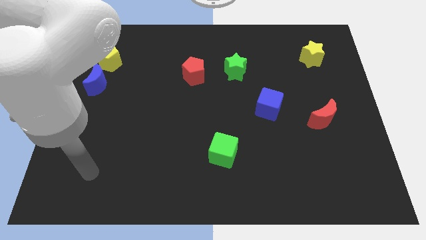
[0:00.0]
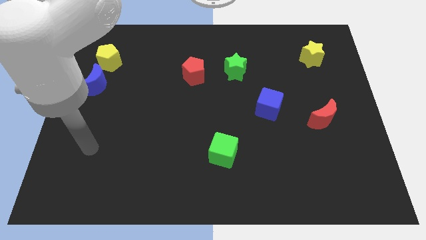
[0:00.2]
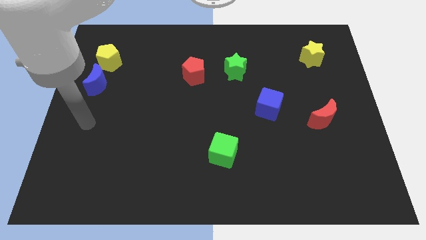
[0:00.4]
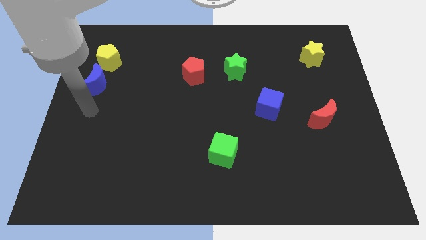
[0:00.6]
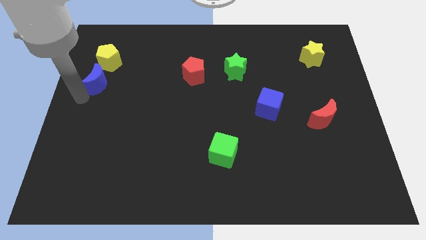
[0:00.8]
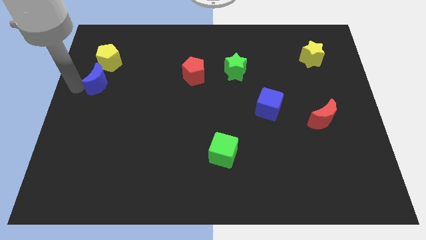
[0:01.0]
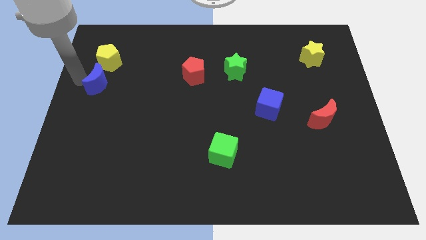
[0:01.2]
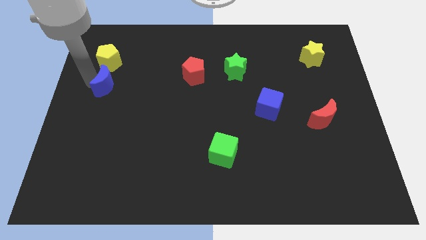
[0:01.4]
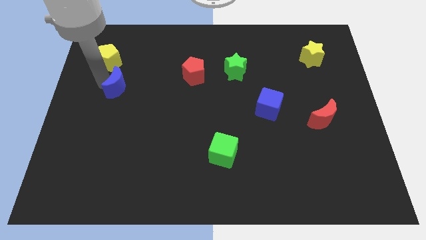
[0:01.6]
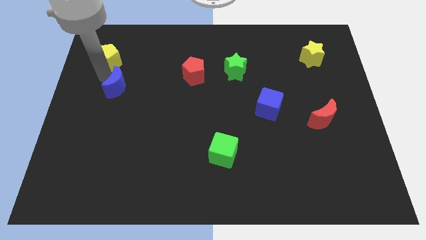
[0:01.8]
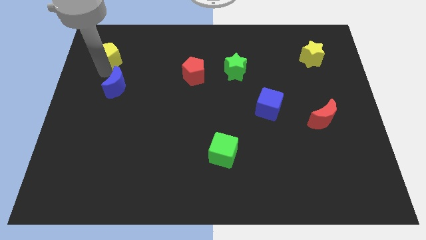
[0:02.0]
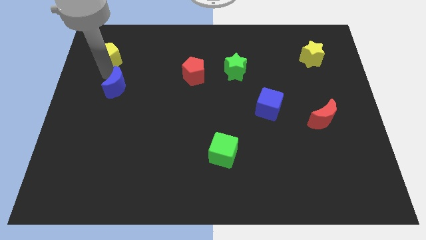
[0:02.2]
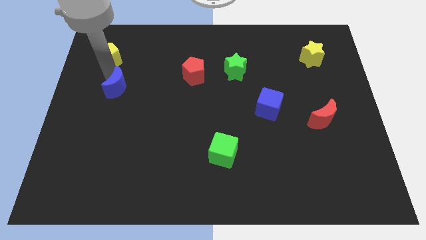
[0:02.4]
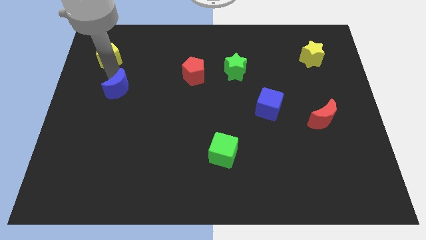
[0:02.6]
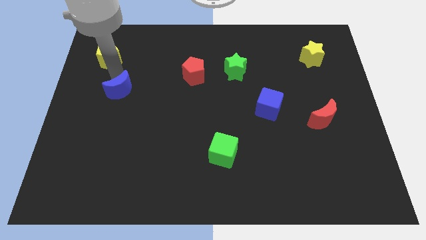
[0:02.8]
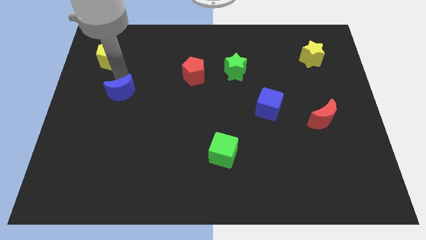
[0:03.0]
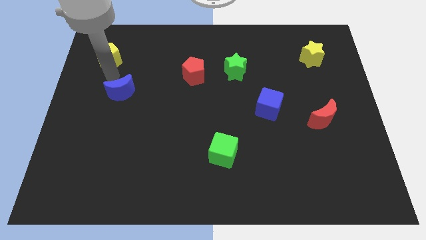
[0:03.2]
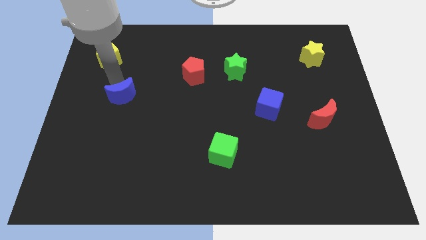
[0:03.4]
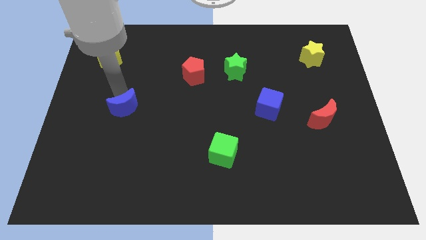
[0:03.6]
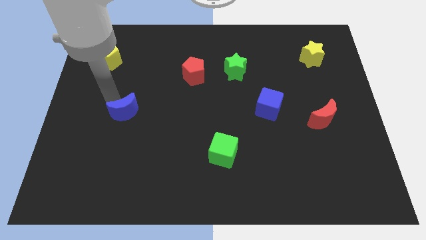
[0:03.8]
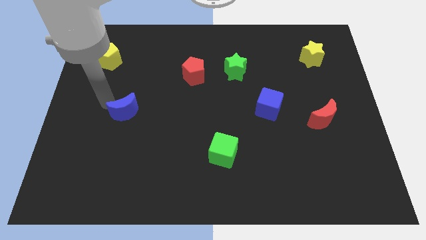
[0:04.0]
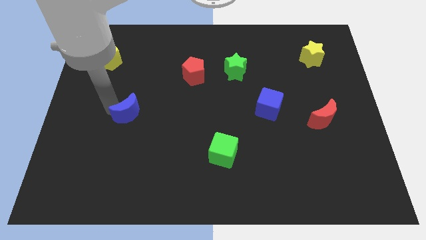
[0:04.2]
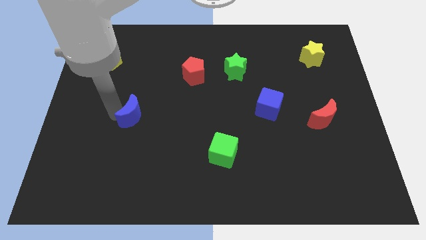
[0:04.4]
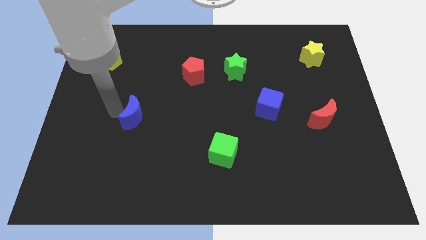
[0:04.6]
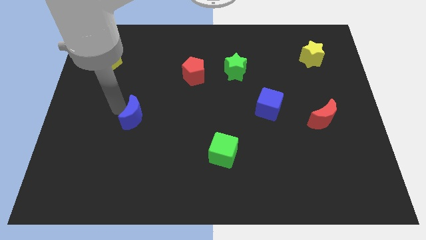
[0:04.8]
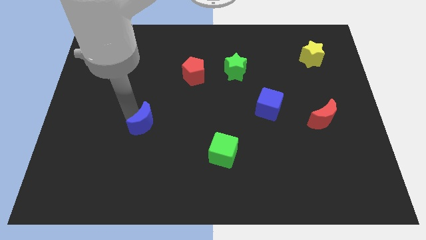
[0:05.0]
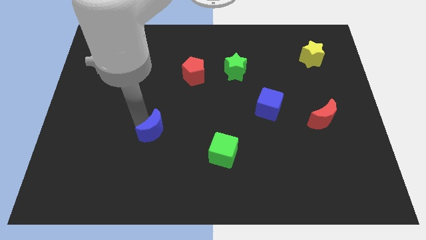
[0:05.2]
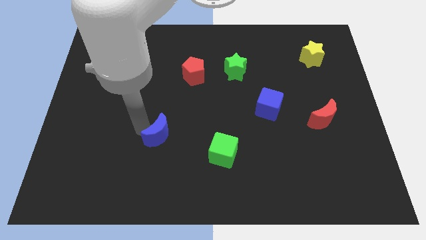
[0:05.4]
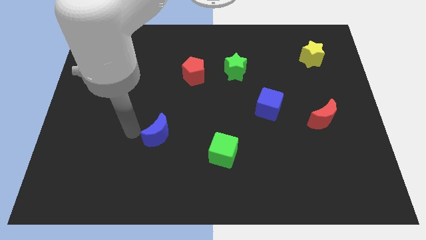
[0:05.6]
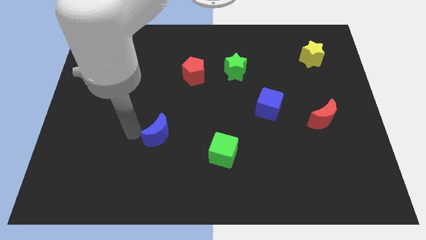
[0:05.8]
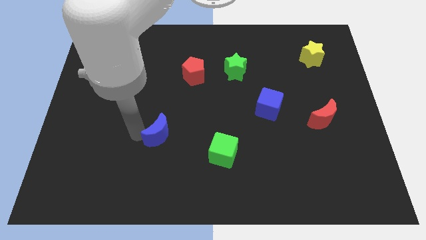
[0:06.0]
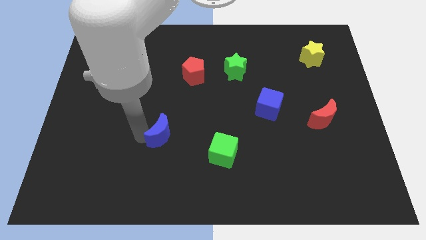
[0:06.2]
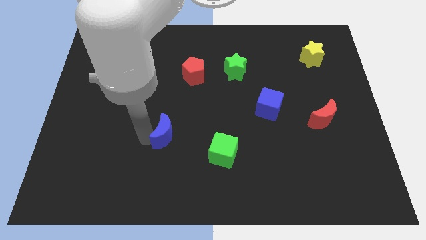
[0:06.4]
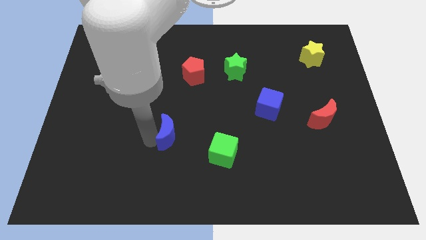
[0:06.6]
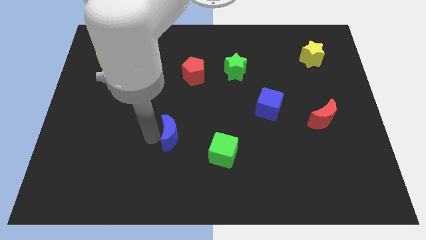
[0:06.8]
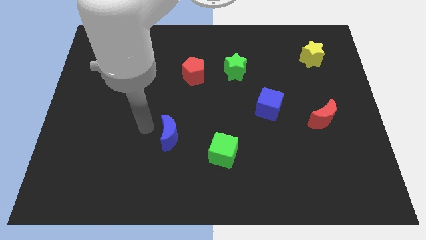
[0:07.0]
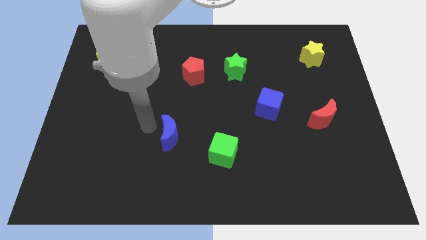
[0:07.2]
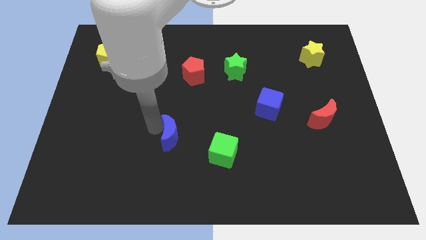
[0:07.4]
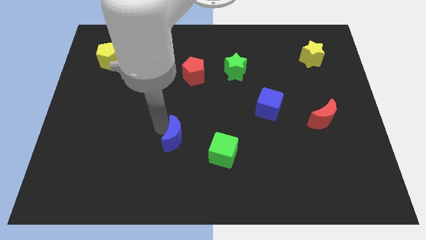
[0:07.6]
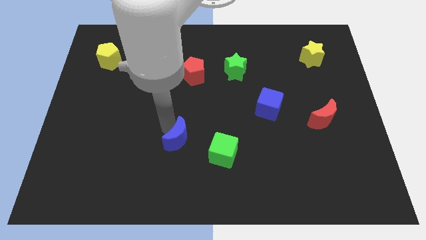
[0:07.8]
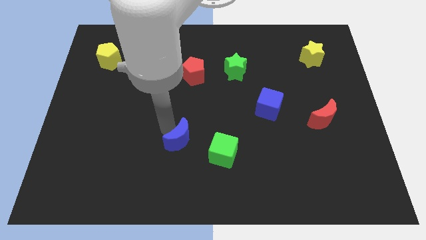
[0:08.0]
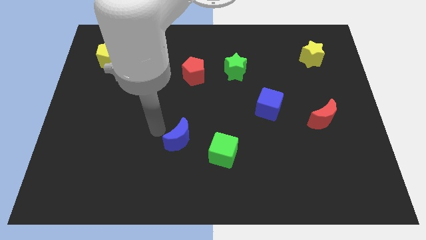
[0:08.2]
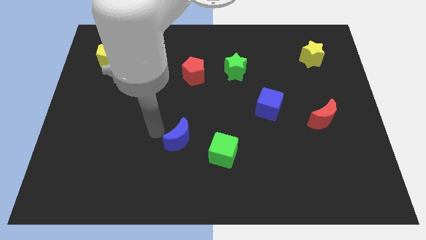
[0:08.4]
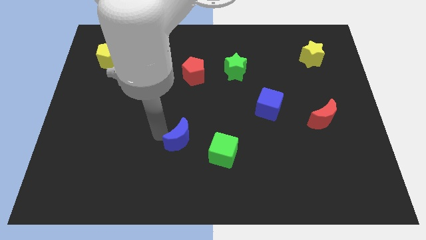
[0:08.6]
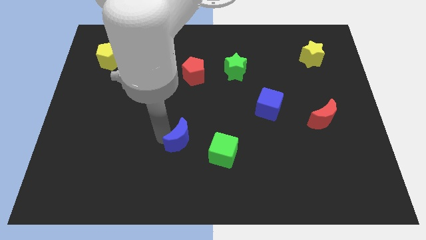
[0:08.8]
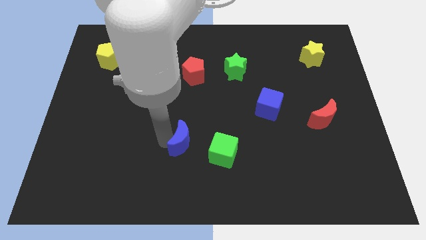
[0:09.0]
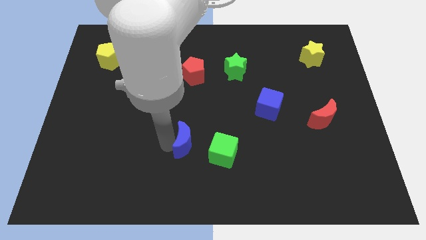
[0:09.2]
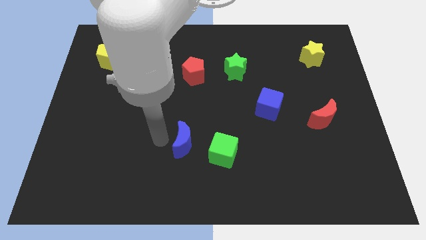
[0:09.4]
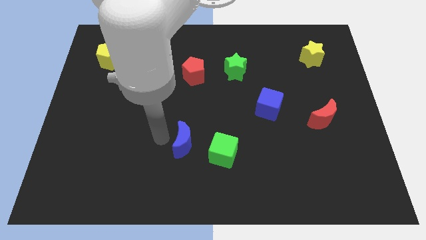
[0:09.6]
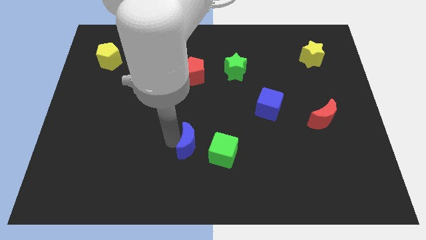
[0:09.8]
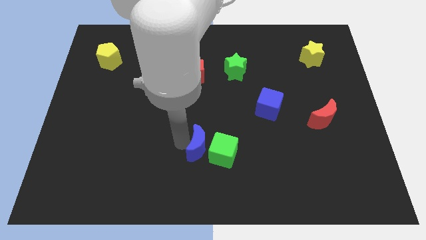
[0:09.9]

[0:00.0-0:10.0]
slide the blue moon to the green cube

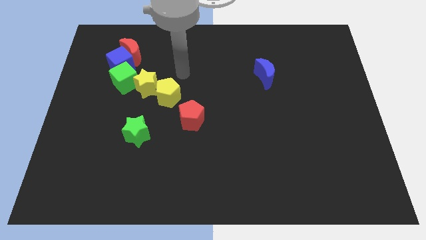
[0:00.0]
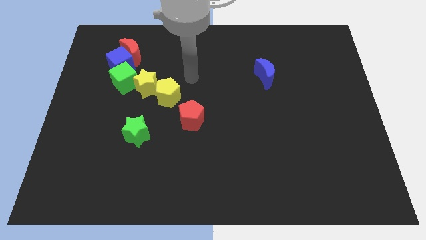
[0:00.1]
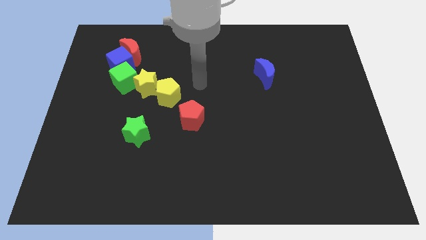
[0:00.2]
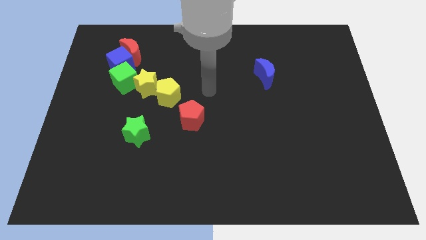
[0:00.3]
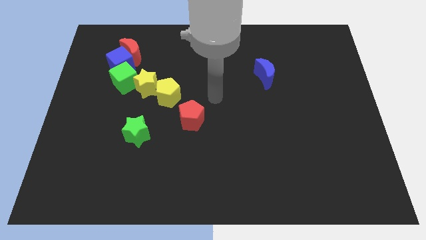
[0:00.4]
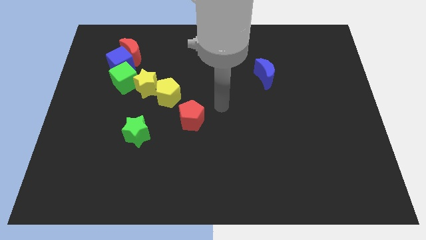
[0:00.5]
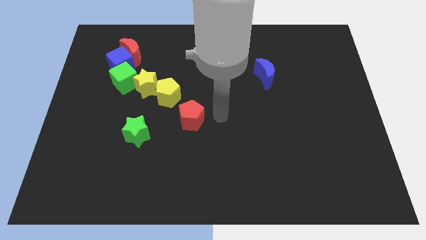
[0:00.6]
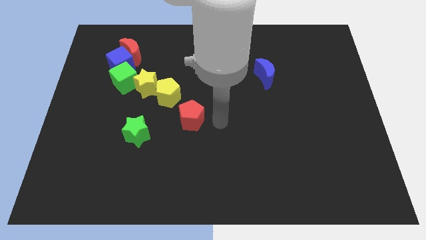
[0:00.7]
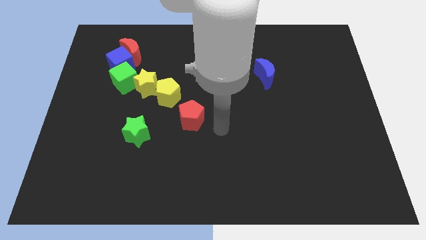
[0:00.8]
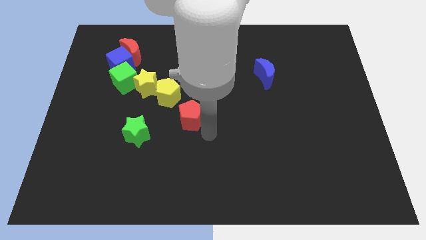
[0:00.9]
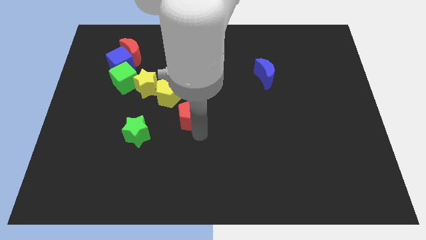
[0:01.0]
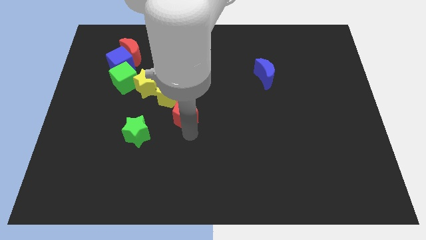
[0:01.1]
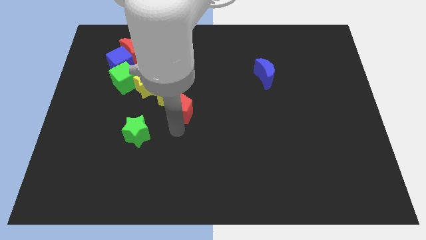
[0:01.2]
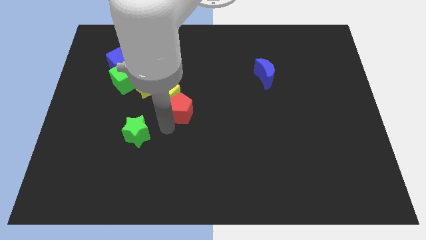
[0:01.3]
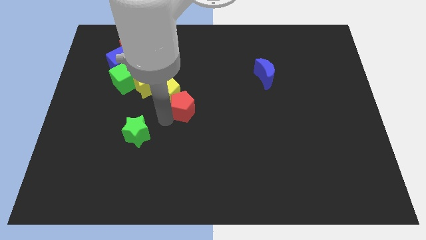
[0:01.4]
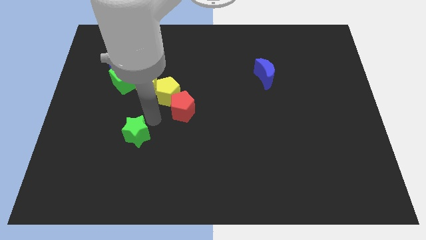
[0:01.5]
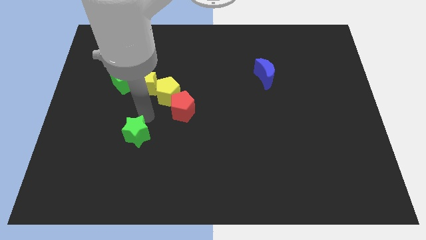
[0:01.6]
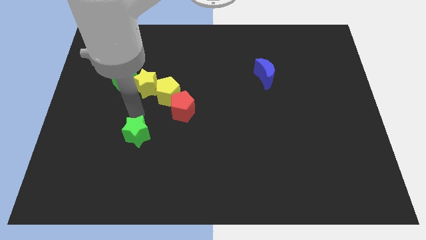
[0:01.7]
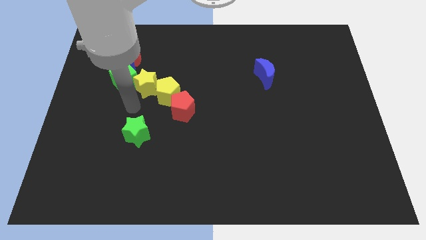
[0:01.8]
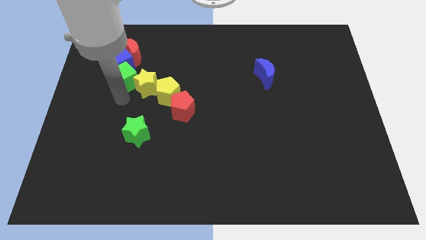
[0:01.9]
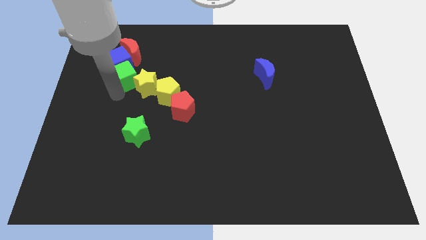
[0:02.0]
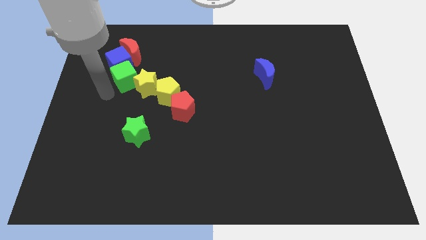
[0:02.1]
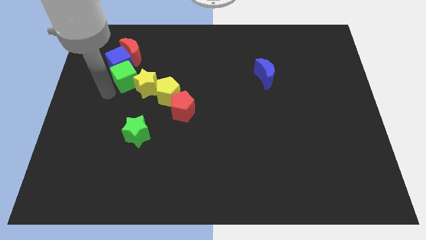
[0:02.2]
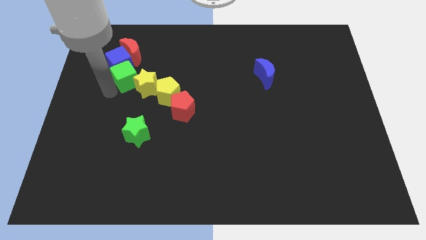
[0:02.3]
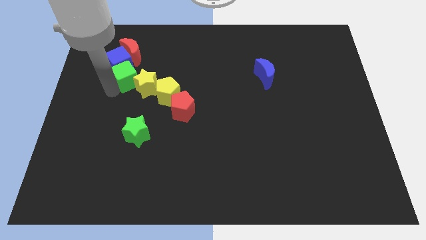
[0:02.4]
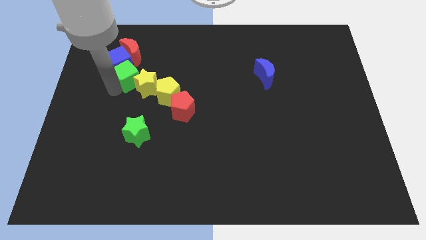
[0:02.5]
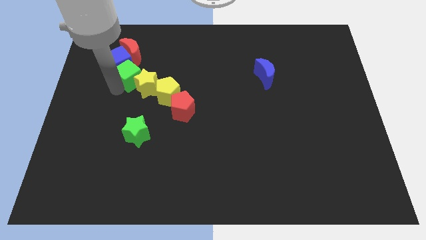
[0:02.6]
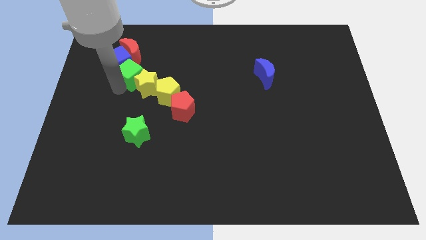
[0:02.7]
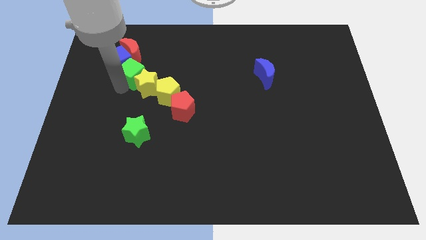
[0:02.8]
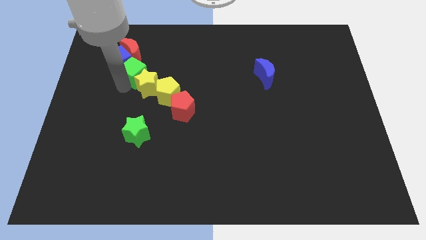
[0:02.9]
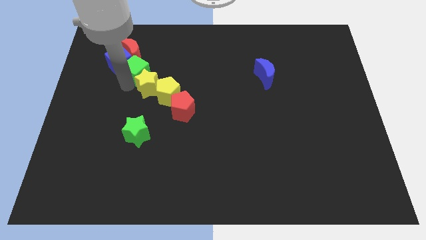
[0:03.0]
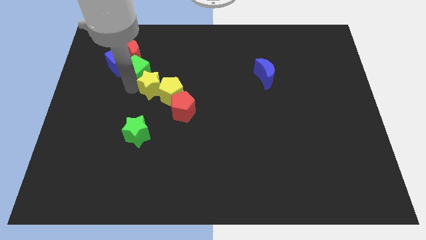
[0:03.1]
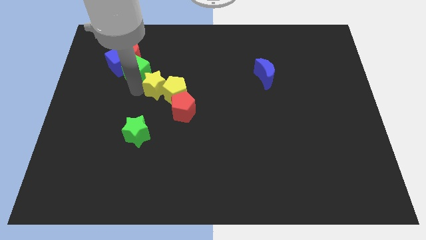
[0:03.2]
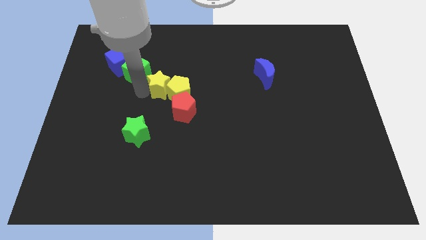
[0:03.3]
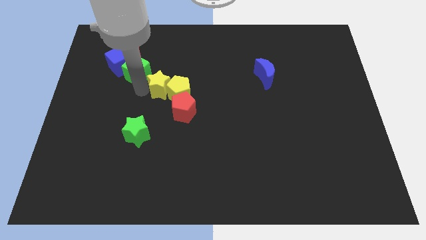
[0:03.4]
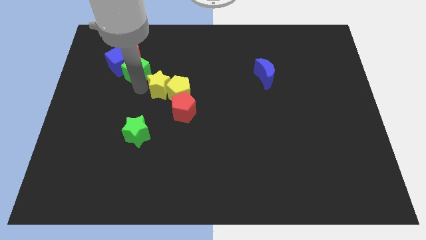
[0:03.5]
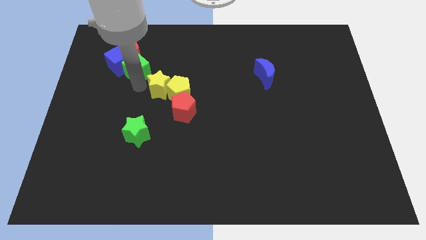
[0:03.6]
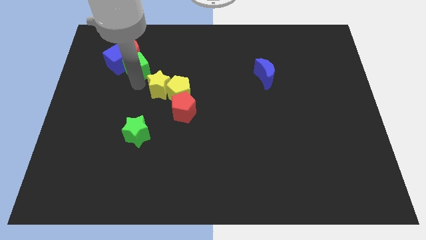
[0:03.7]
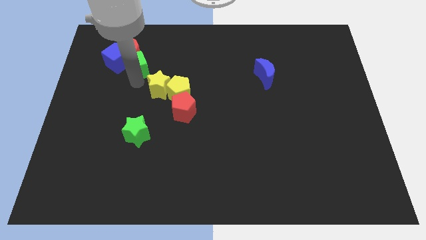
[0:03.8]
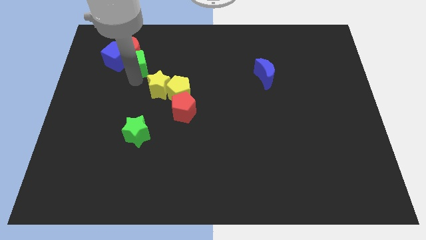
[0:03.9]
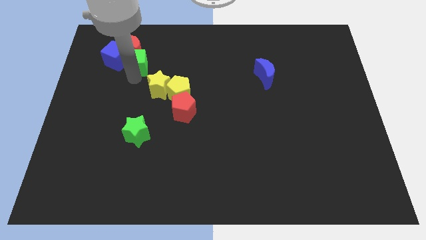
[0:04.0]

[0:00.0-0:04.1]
slide the green cube towards the red moon
